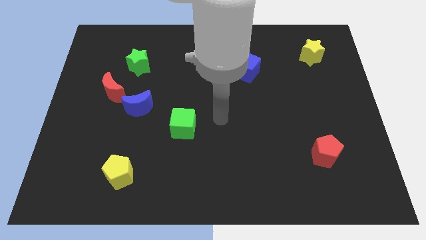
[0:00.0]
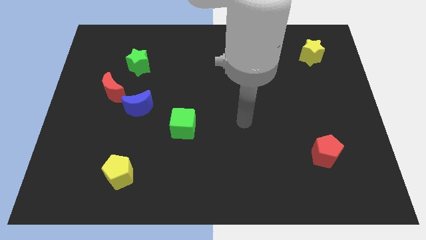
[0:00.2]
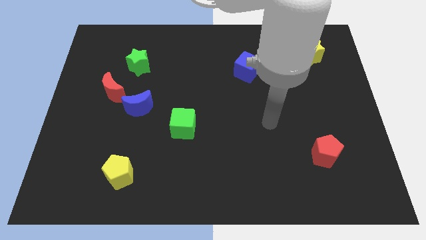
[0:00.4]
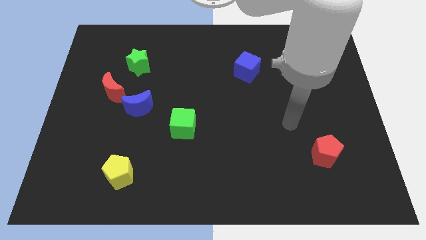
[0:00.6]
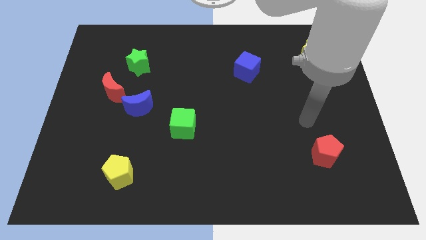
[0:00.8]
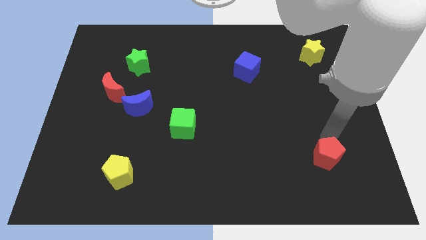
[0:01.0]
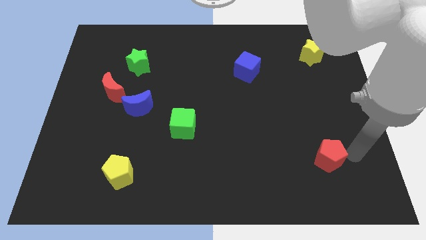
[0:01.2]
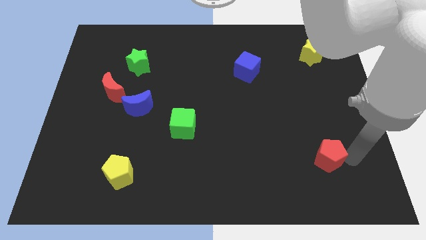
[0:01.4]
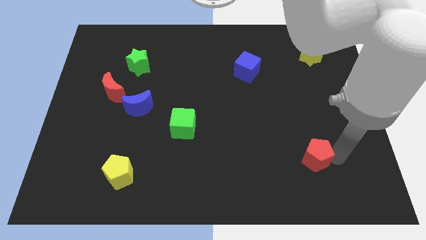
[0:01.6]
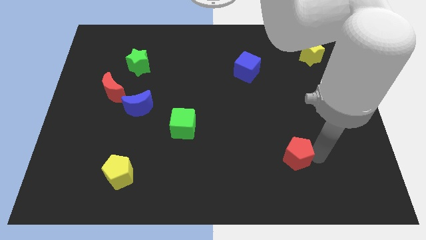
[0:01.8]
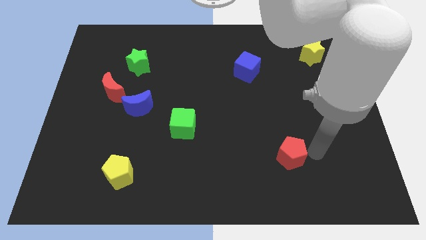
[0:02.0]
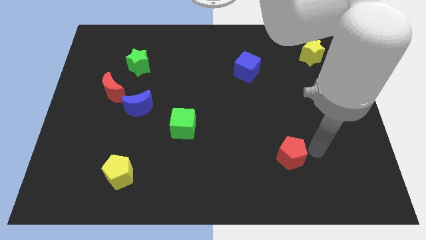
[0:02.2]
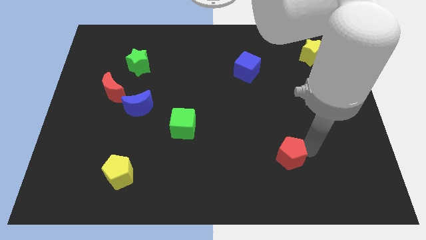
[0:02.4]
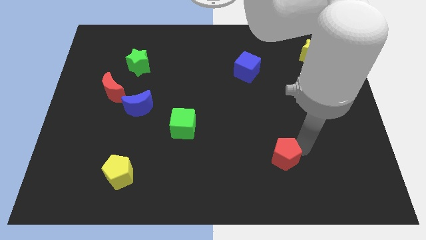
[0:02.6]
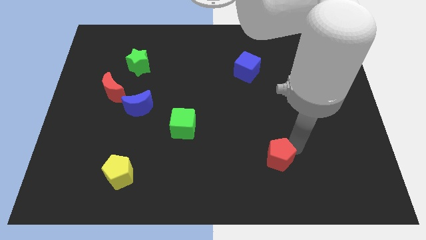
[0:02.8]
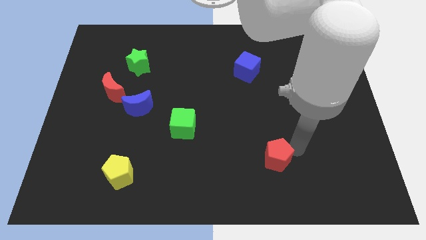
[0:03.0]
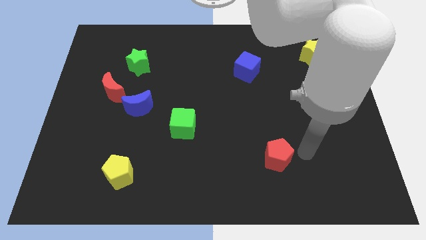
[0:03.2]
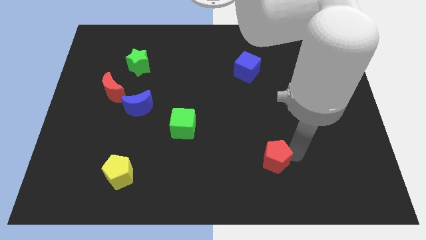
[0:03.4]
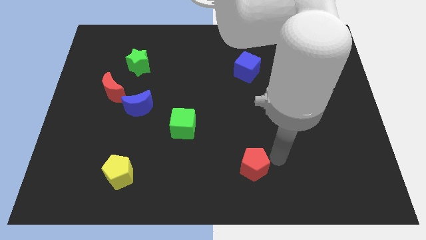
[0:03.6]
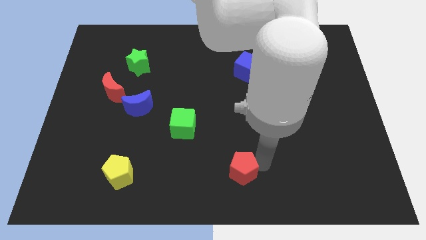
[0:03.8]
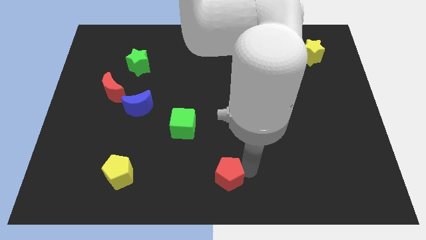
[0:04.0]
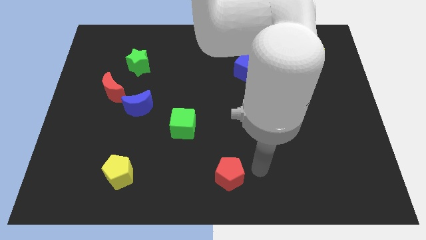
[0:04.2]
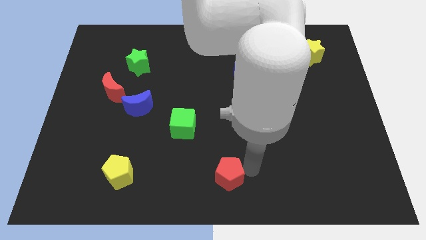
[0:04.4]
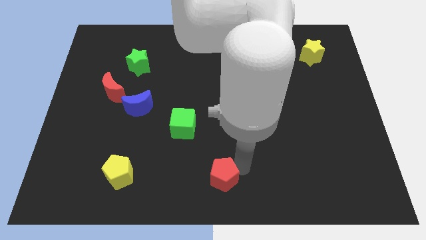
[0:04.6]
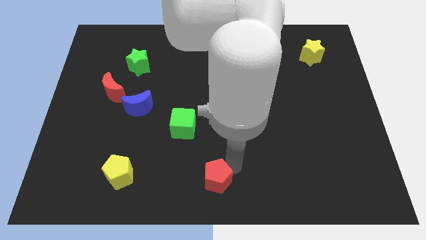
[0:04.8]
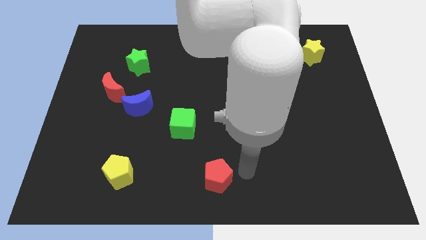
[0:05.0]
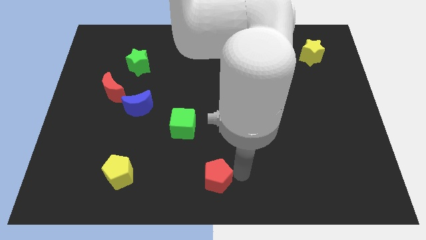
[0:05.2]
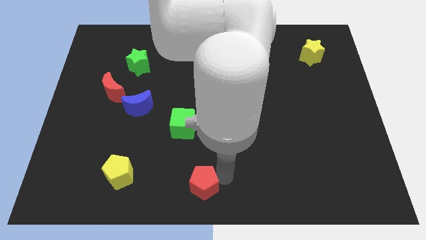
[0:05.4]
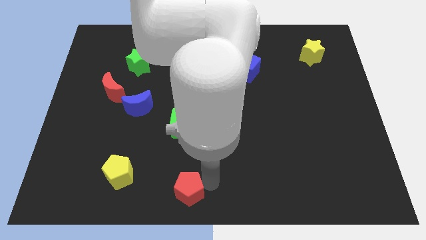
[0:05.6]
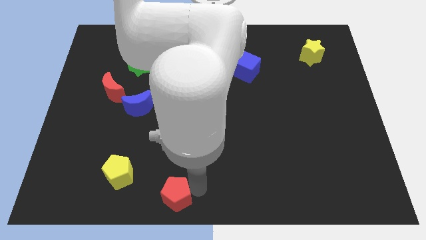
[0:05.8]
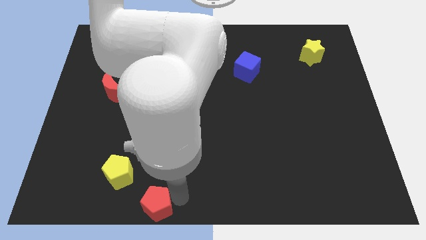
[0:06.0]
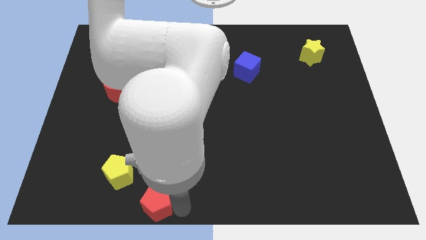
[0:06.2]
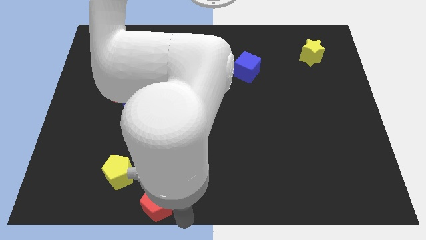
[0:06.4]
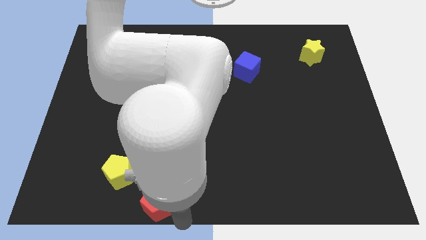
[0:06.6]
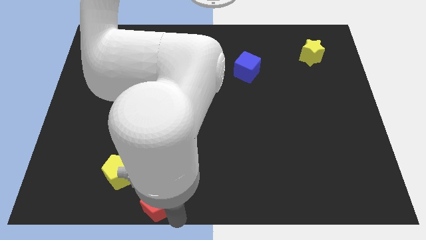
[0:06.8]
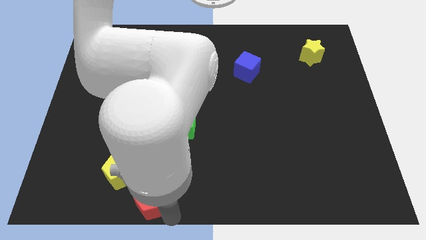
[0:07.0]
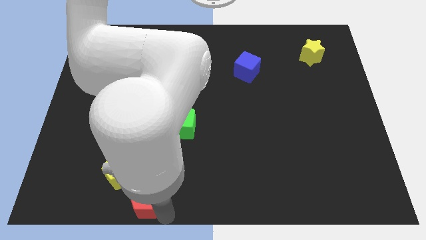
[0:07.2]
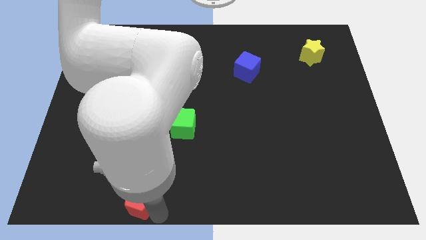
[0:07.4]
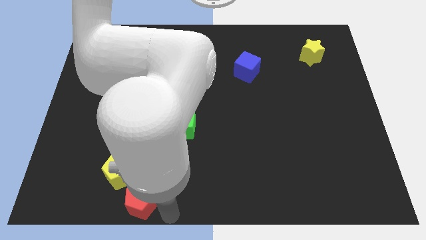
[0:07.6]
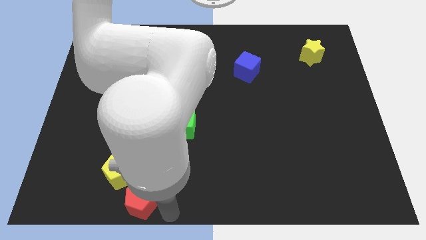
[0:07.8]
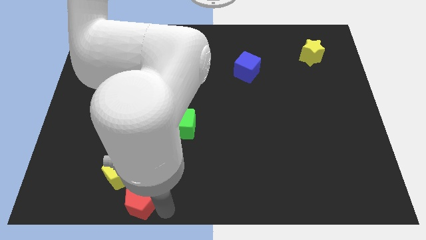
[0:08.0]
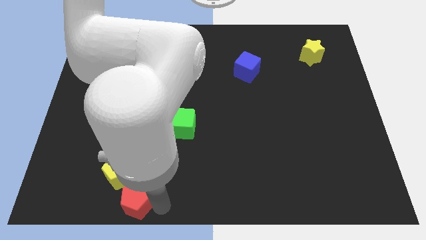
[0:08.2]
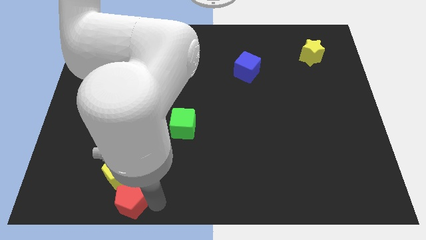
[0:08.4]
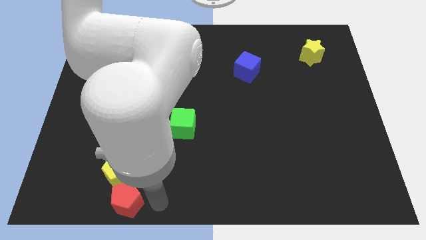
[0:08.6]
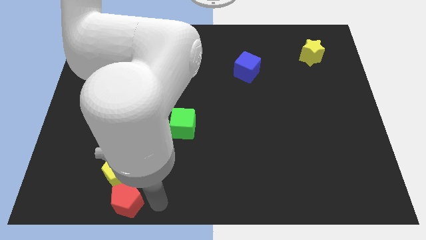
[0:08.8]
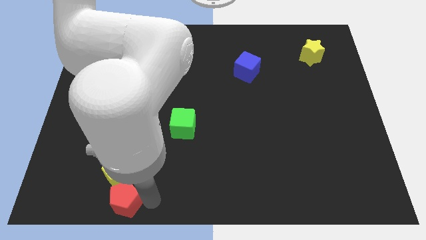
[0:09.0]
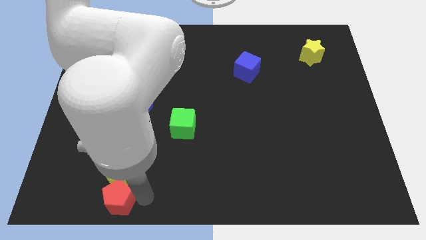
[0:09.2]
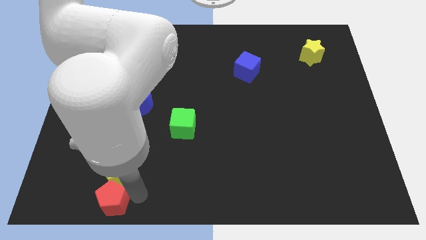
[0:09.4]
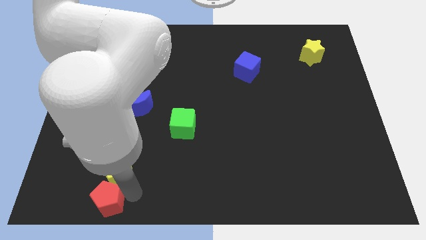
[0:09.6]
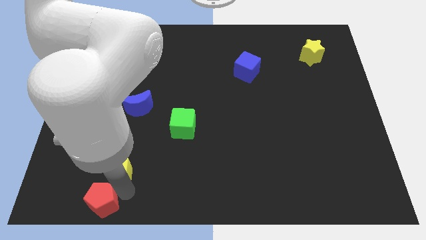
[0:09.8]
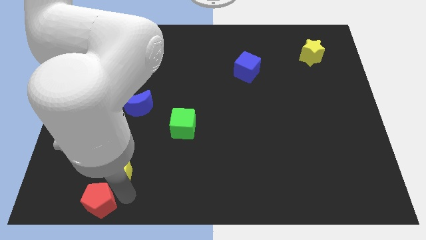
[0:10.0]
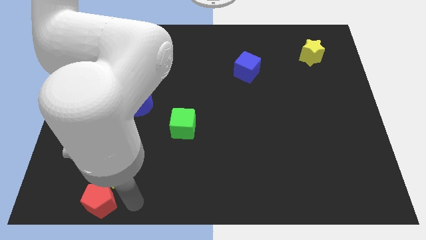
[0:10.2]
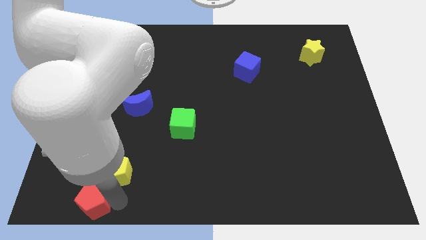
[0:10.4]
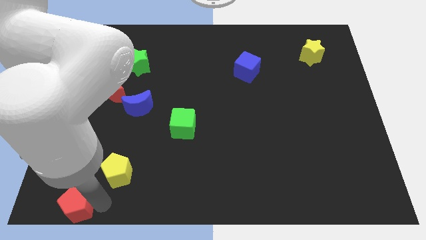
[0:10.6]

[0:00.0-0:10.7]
move the red pentagon to the bottom left corner

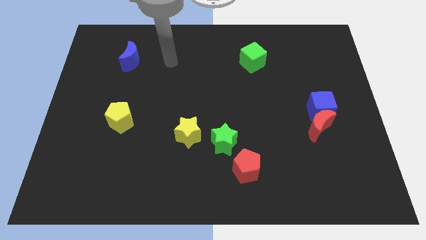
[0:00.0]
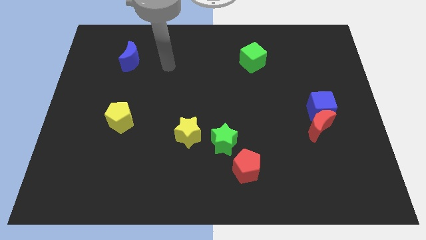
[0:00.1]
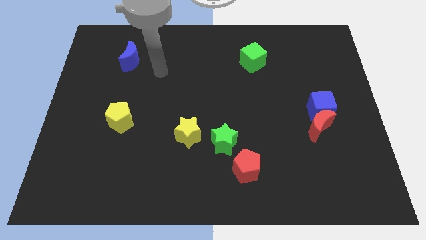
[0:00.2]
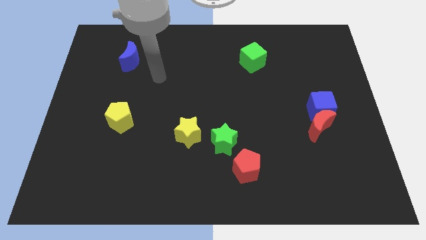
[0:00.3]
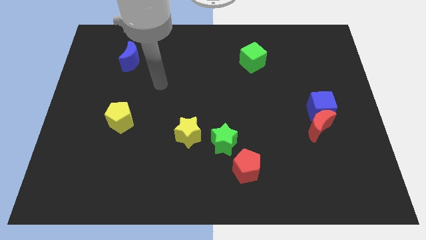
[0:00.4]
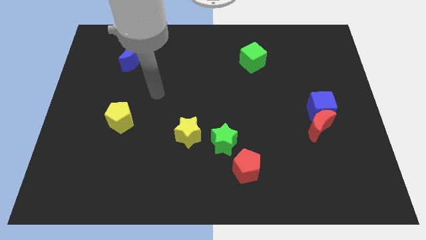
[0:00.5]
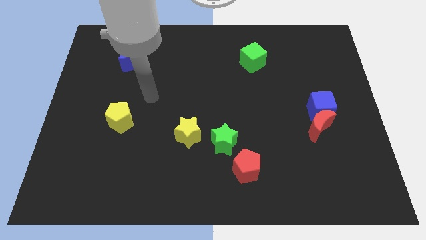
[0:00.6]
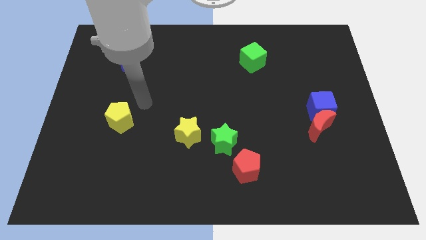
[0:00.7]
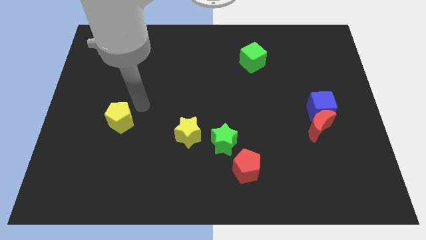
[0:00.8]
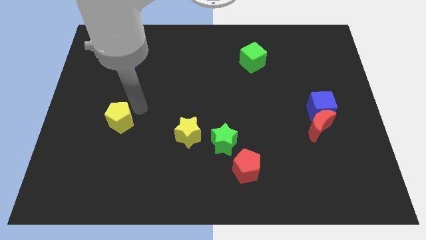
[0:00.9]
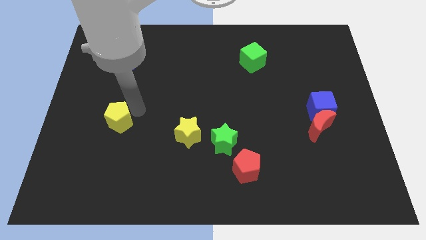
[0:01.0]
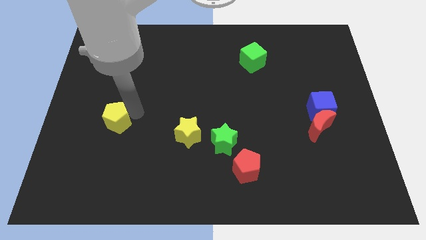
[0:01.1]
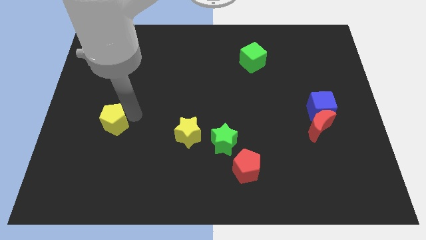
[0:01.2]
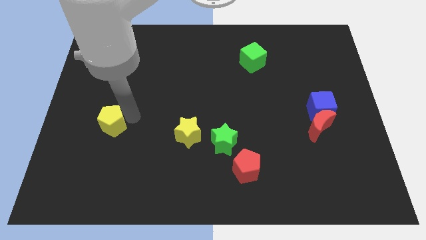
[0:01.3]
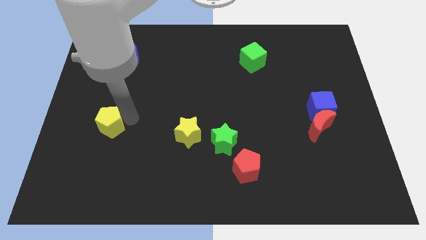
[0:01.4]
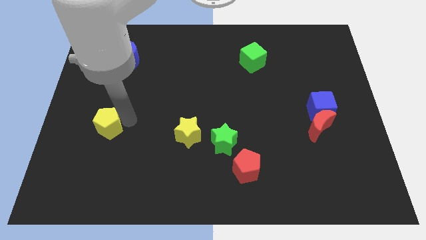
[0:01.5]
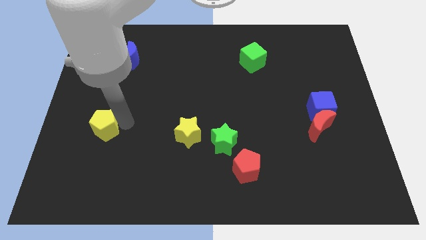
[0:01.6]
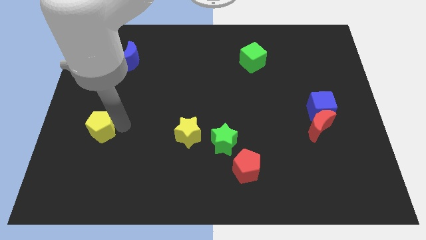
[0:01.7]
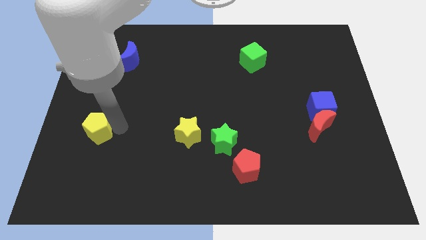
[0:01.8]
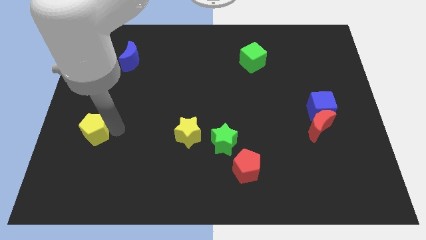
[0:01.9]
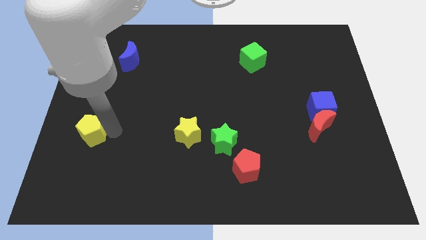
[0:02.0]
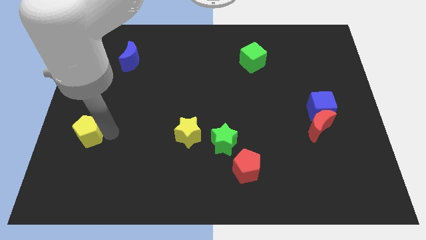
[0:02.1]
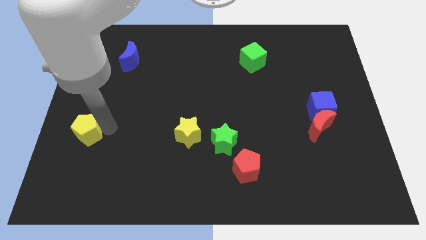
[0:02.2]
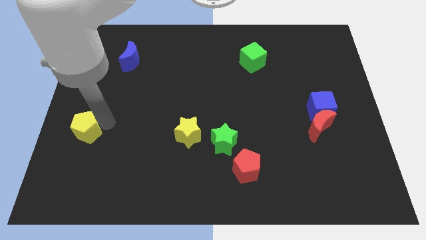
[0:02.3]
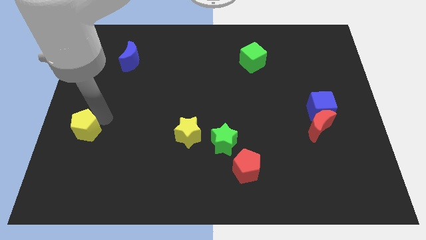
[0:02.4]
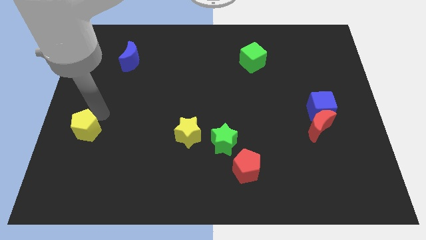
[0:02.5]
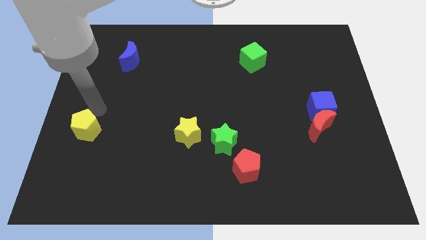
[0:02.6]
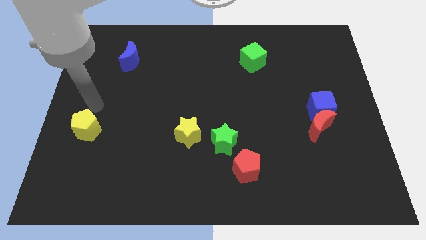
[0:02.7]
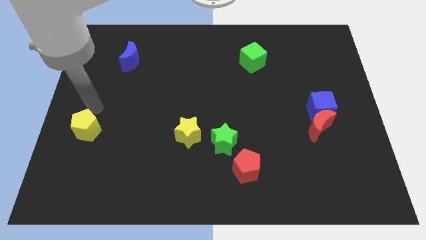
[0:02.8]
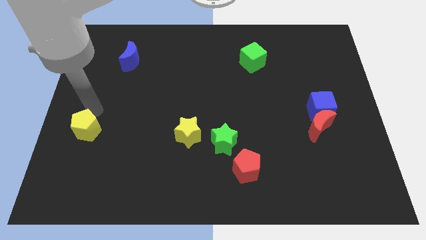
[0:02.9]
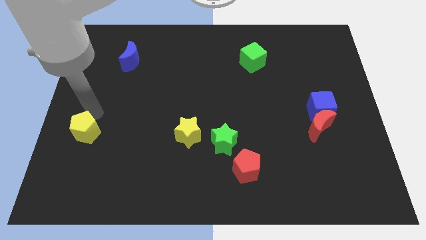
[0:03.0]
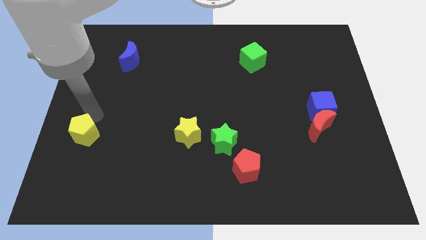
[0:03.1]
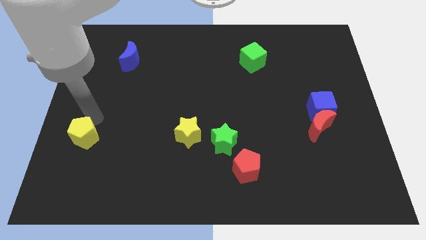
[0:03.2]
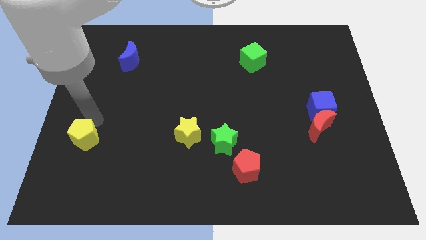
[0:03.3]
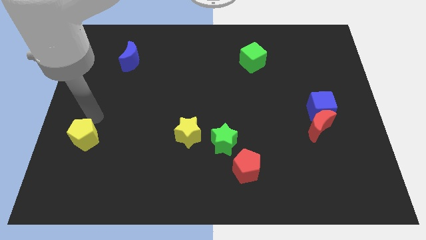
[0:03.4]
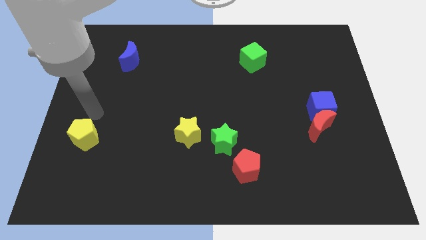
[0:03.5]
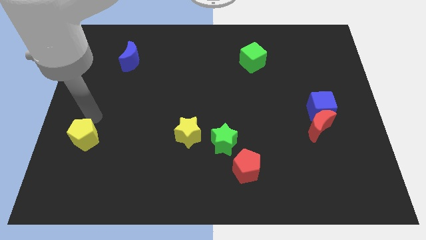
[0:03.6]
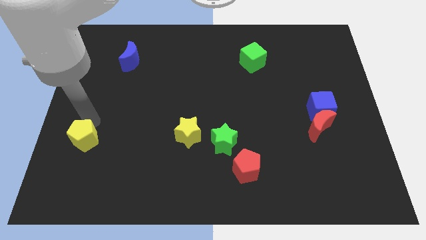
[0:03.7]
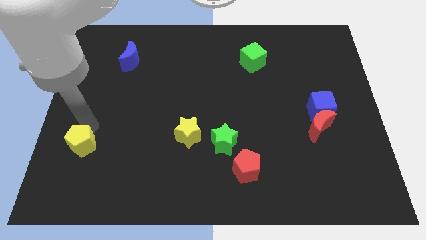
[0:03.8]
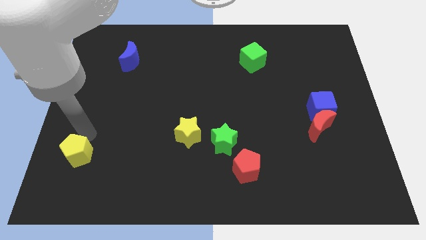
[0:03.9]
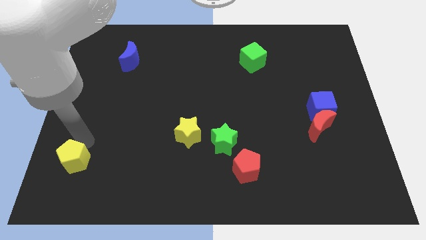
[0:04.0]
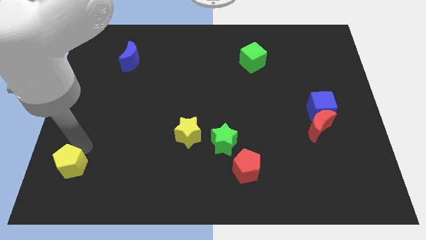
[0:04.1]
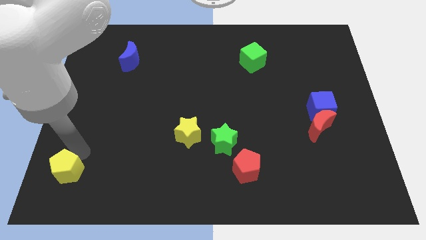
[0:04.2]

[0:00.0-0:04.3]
move the yellow pentagon to the bottom left
